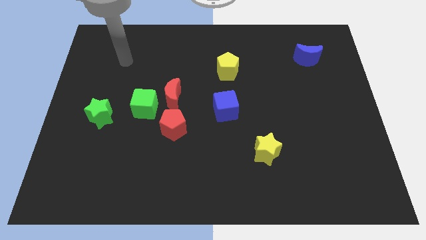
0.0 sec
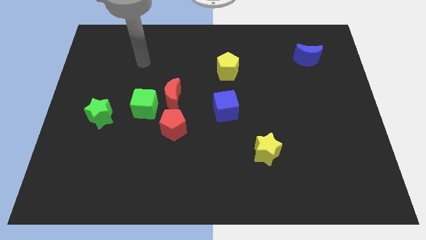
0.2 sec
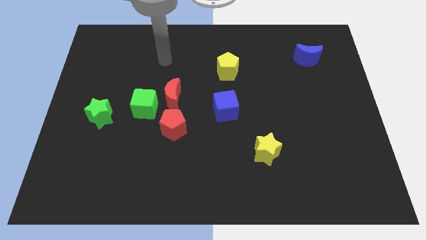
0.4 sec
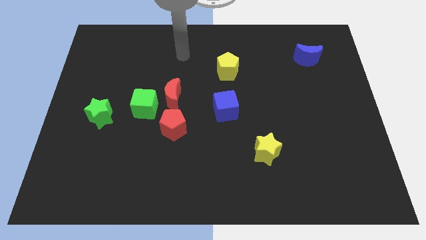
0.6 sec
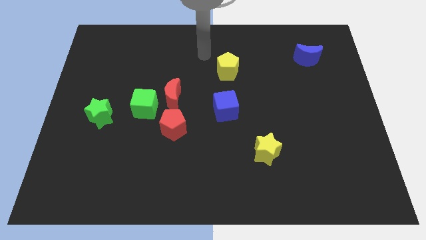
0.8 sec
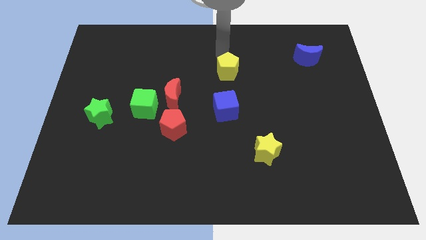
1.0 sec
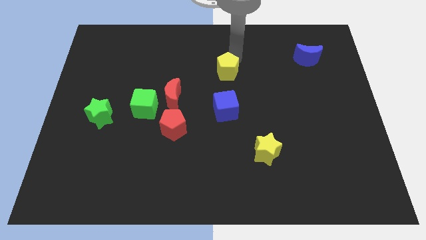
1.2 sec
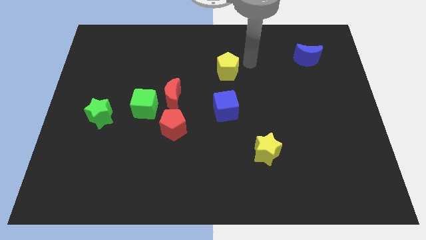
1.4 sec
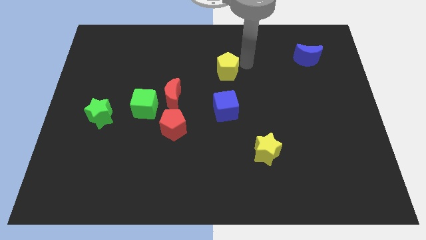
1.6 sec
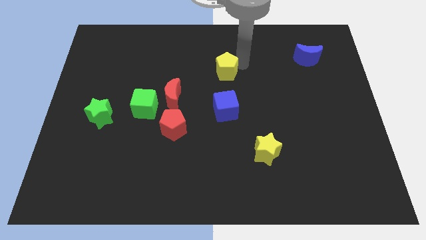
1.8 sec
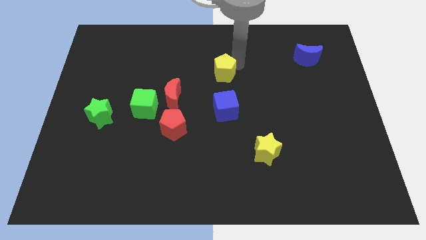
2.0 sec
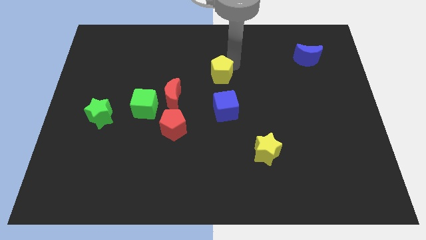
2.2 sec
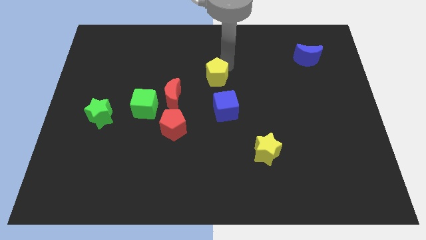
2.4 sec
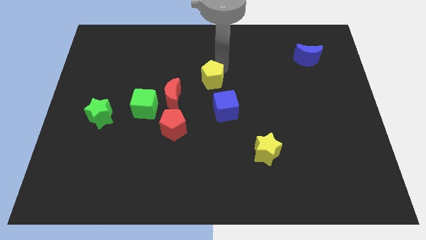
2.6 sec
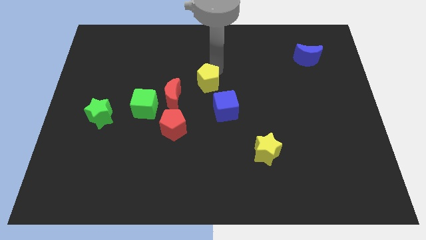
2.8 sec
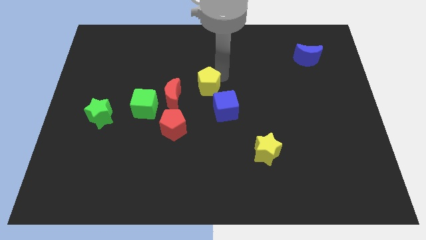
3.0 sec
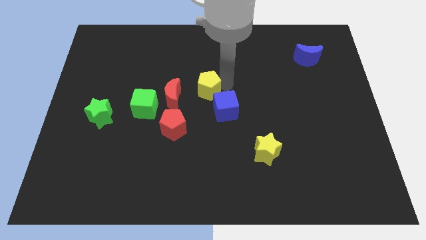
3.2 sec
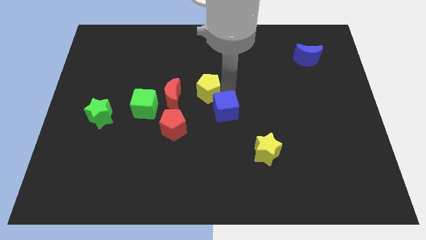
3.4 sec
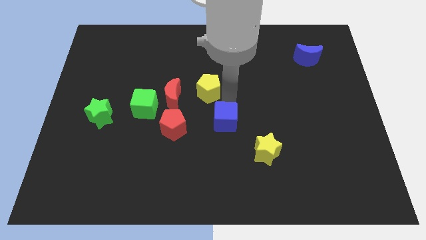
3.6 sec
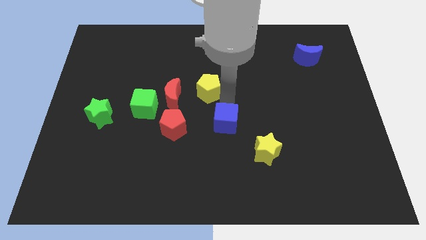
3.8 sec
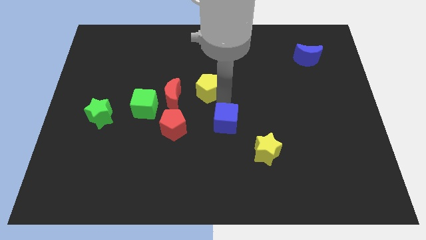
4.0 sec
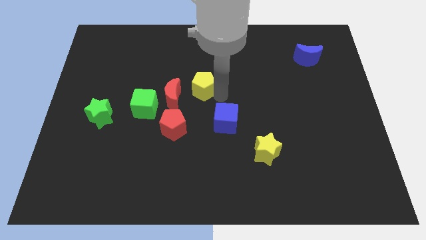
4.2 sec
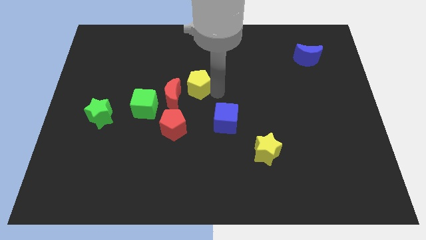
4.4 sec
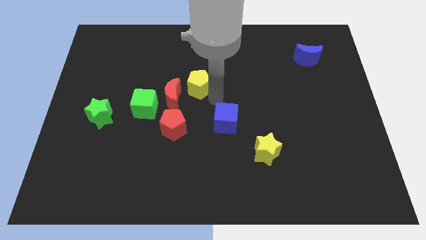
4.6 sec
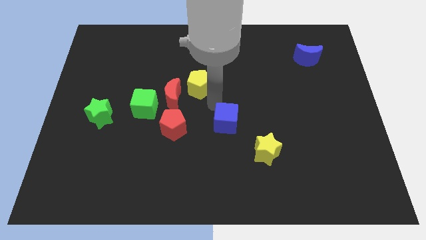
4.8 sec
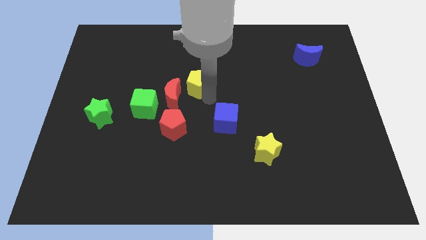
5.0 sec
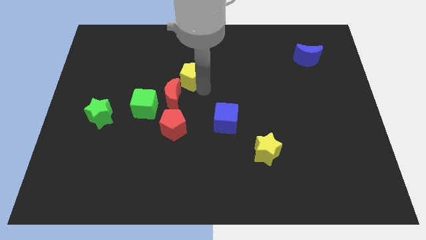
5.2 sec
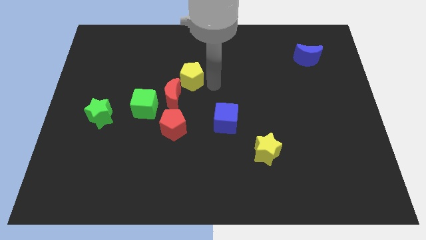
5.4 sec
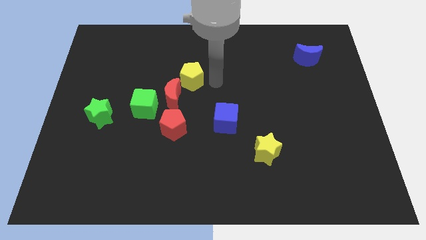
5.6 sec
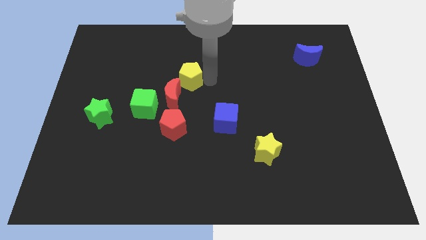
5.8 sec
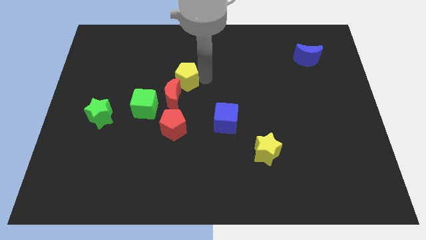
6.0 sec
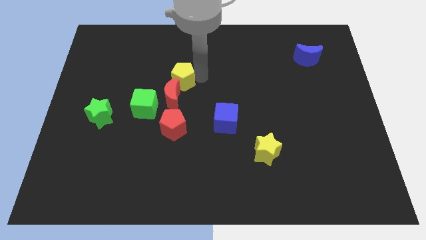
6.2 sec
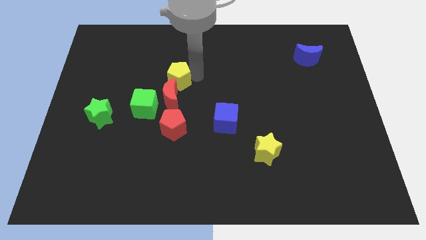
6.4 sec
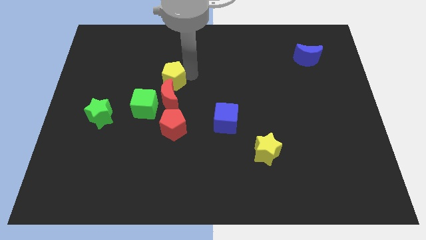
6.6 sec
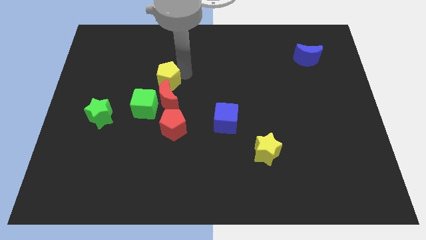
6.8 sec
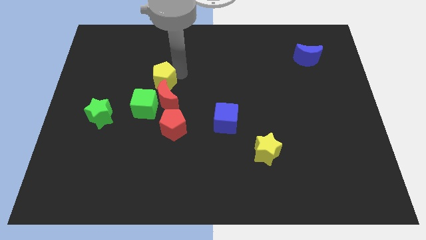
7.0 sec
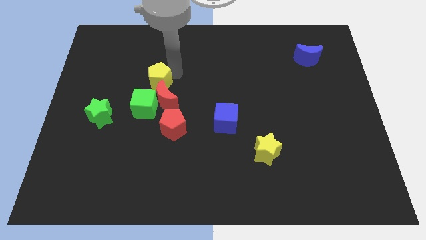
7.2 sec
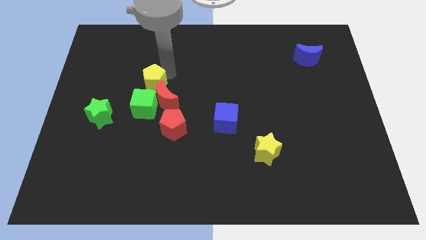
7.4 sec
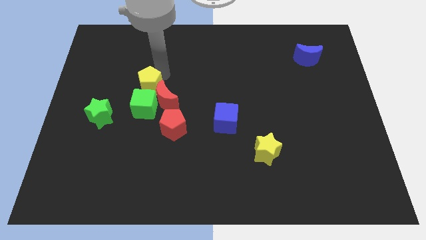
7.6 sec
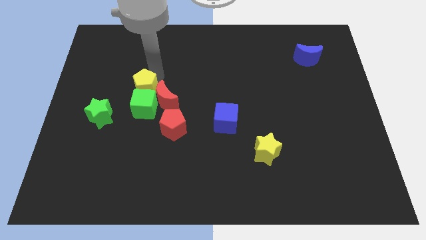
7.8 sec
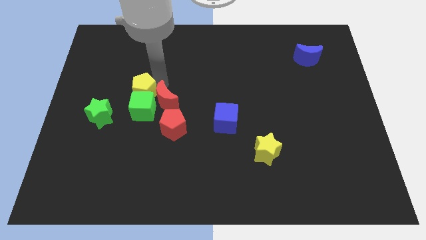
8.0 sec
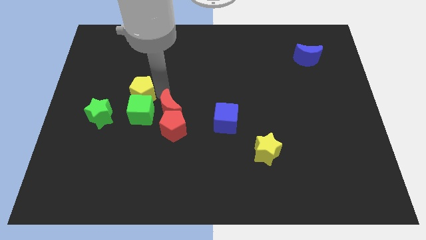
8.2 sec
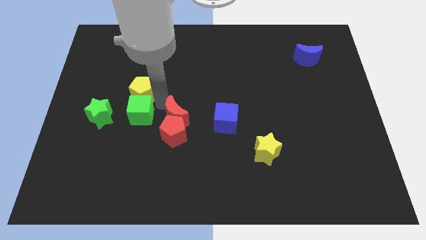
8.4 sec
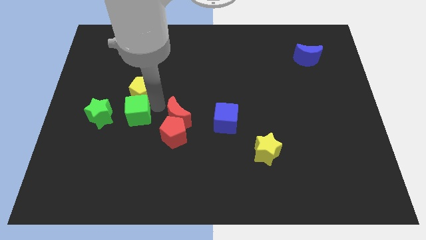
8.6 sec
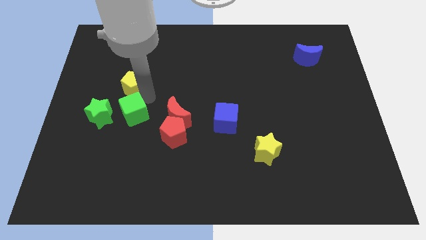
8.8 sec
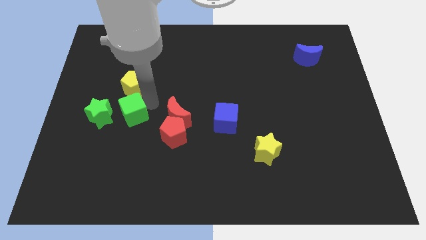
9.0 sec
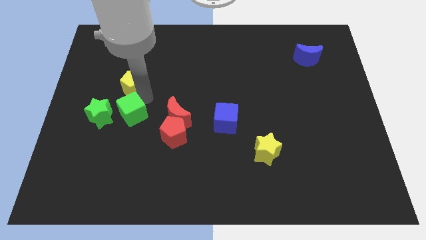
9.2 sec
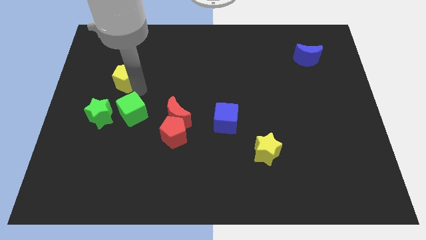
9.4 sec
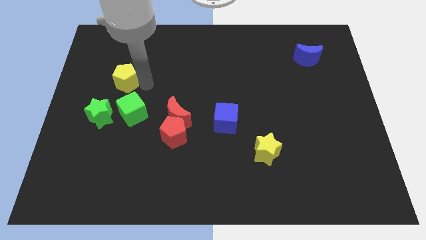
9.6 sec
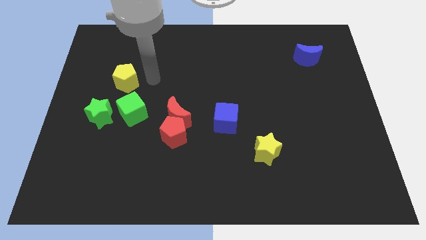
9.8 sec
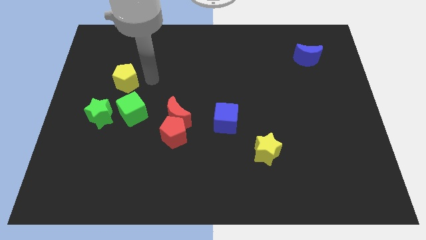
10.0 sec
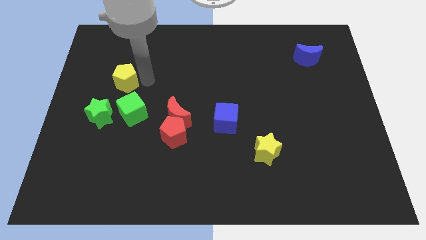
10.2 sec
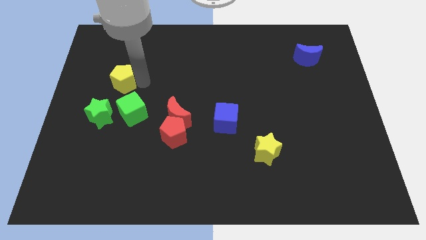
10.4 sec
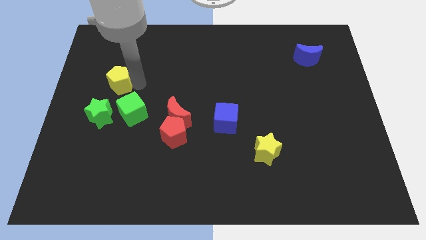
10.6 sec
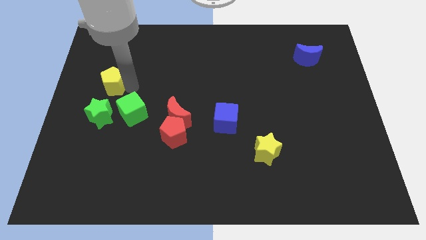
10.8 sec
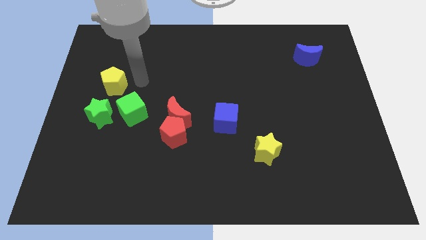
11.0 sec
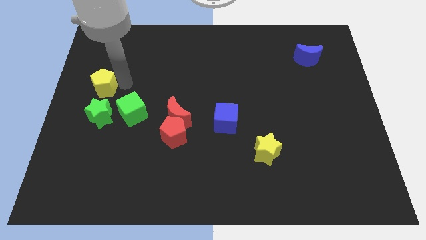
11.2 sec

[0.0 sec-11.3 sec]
put the yellow pentagon to the center left
